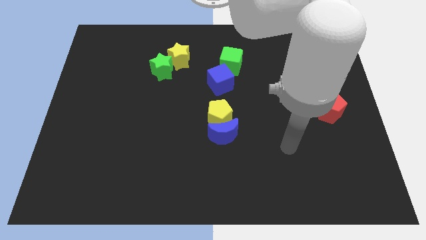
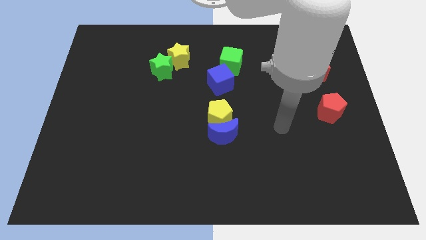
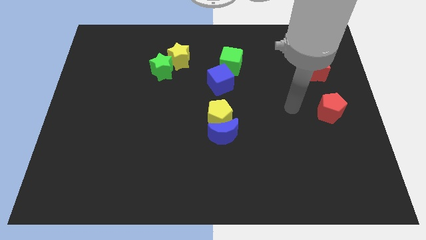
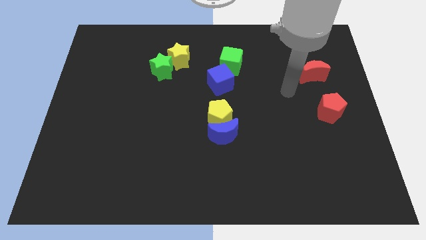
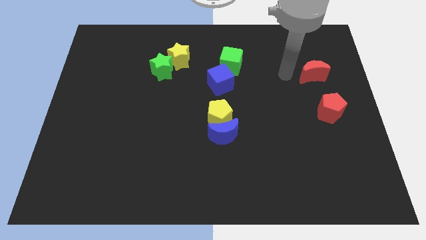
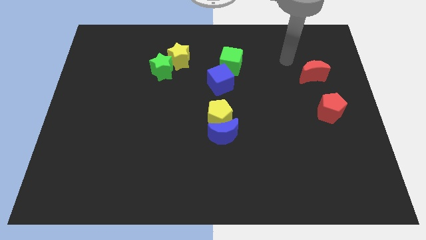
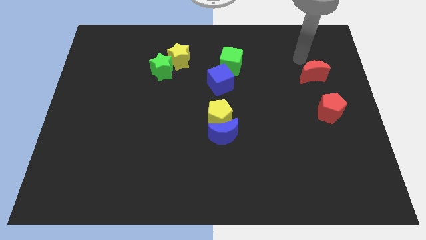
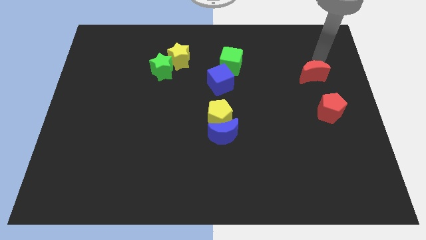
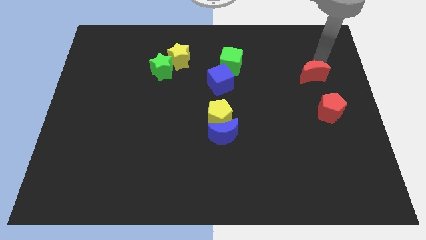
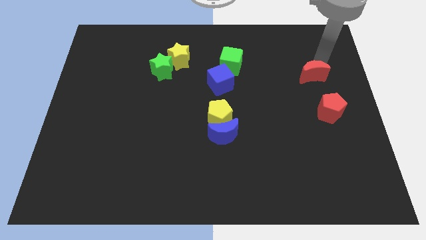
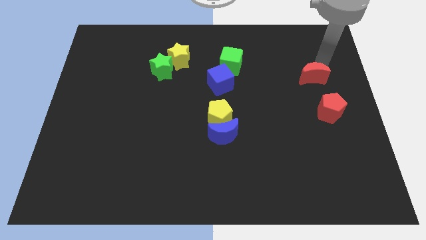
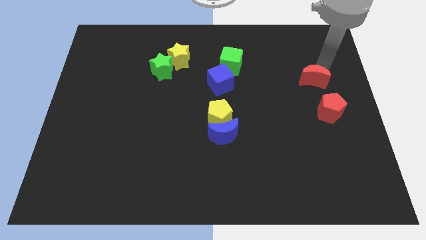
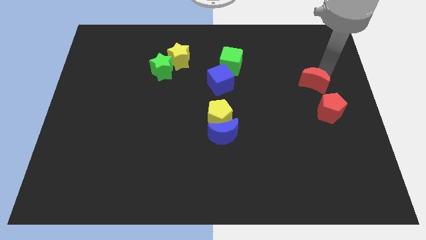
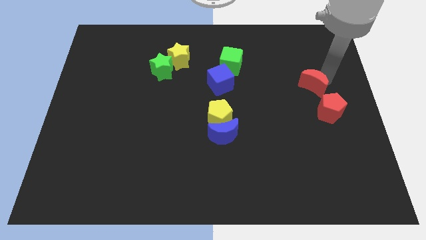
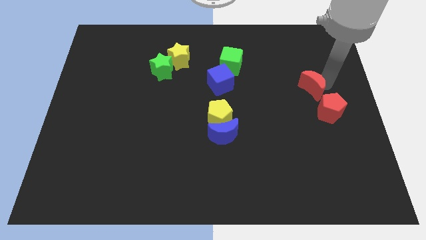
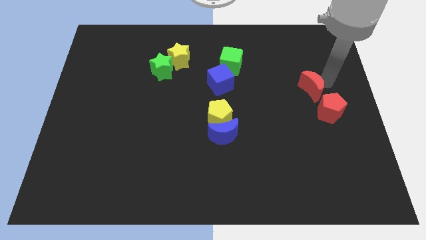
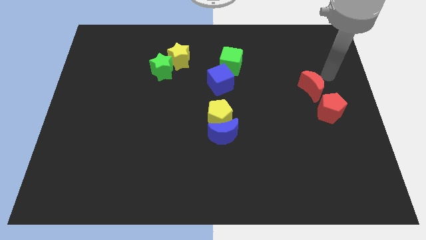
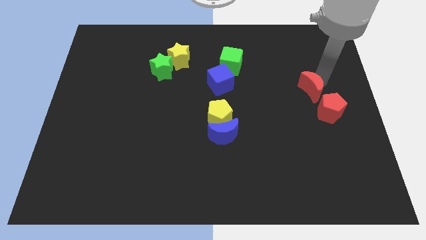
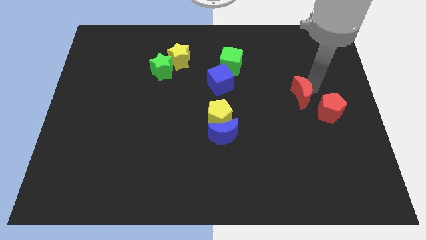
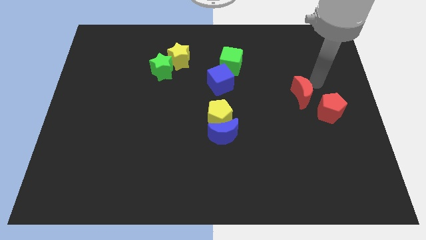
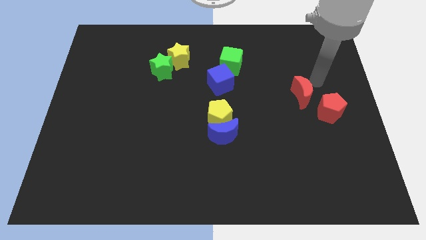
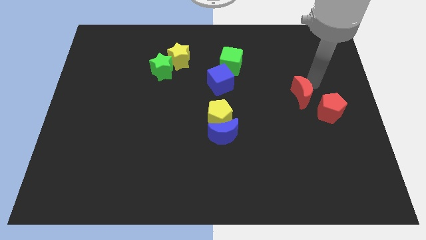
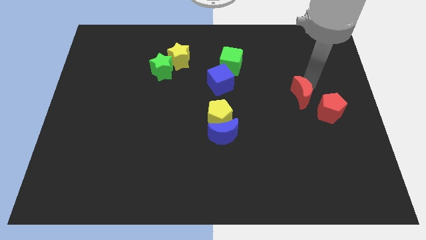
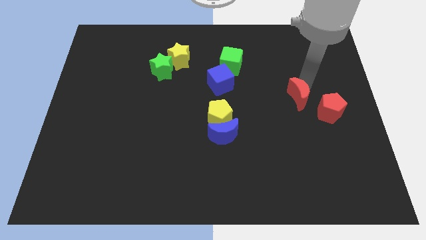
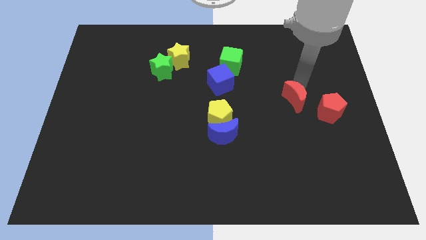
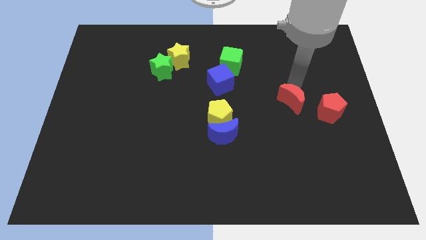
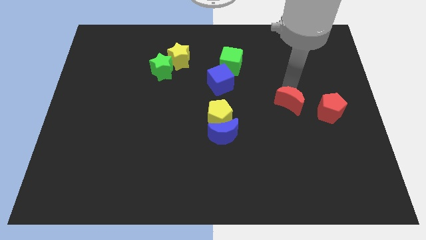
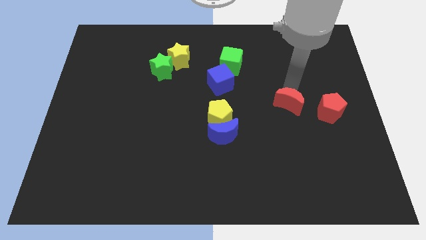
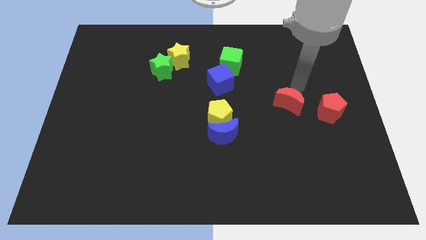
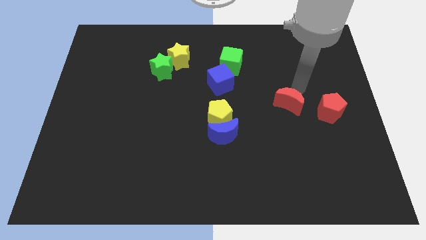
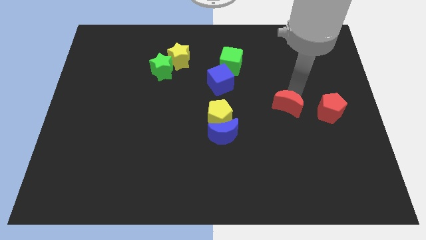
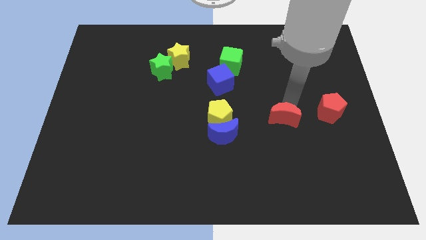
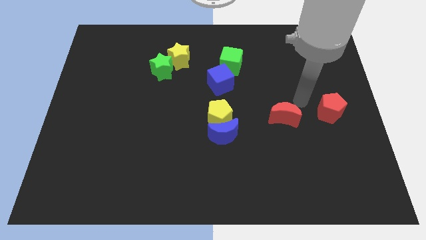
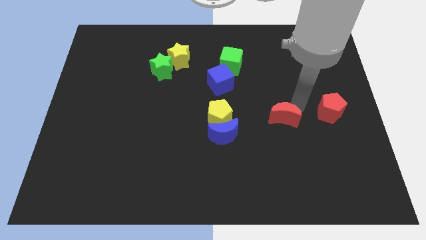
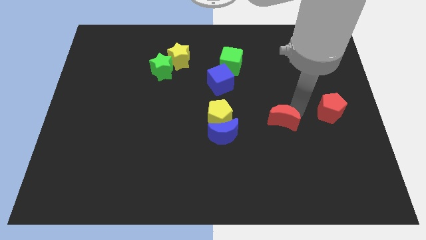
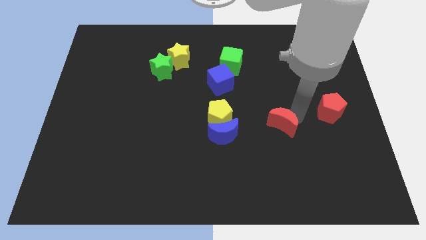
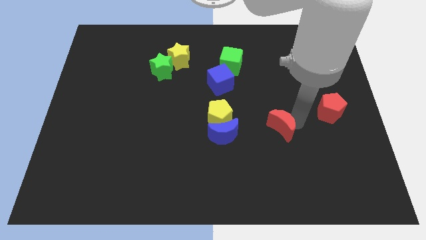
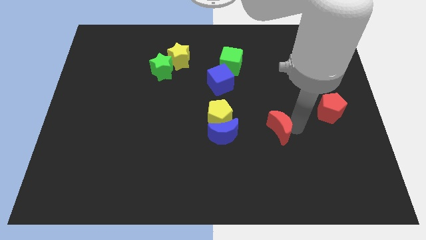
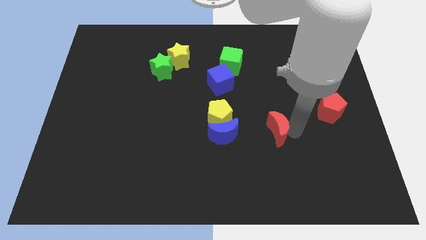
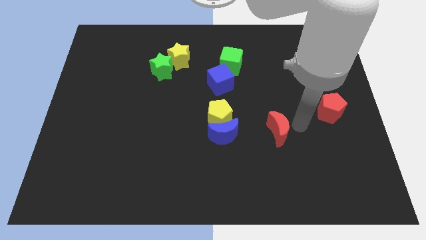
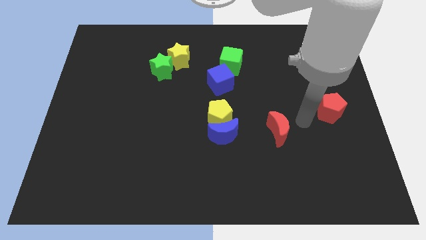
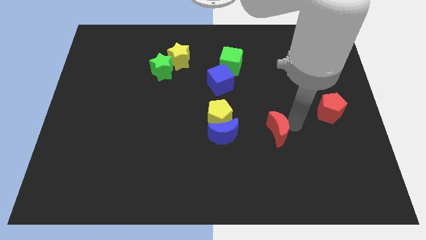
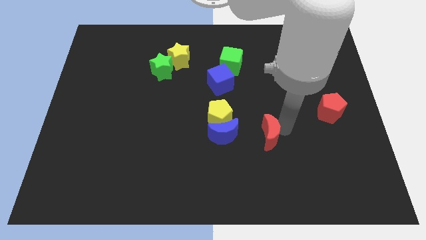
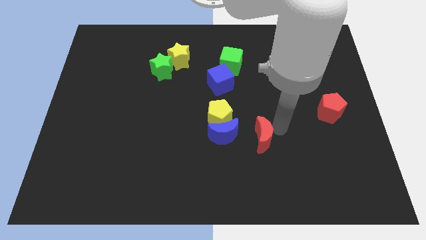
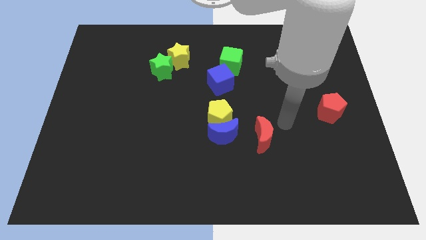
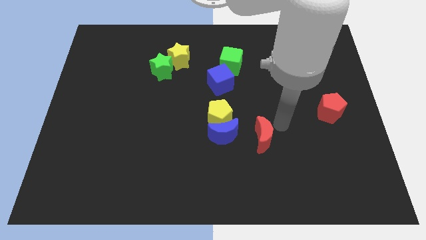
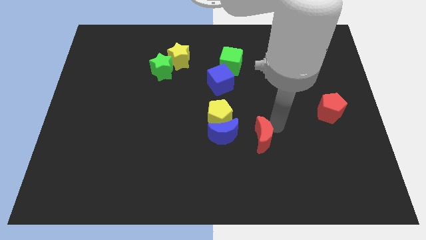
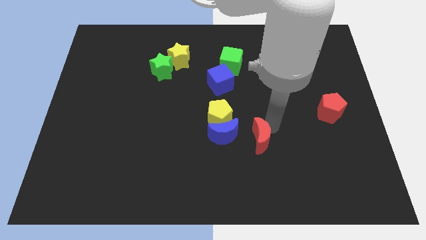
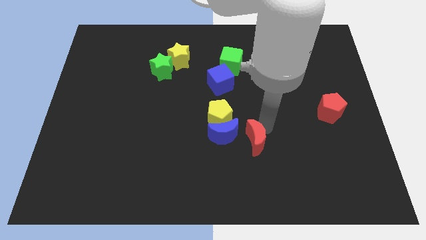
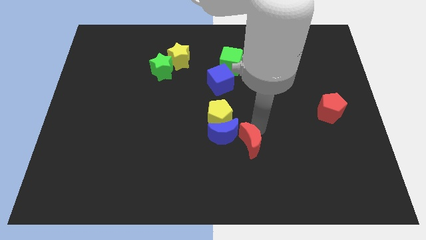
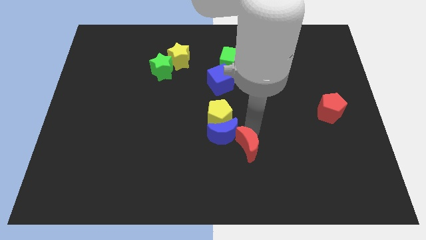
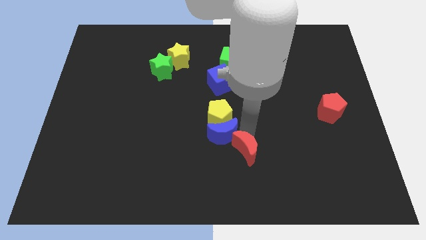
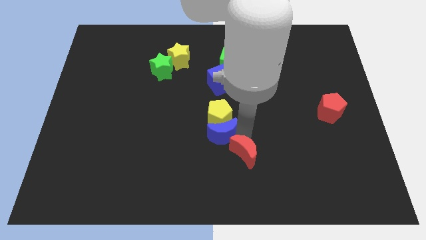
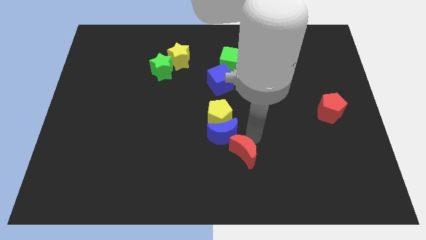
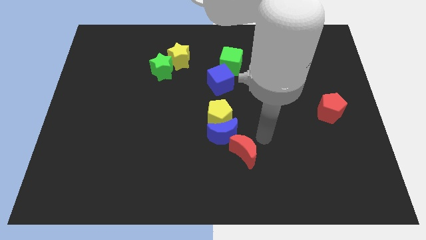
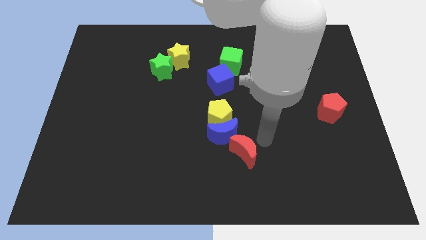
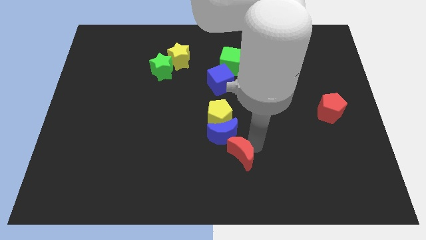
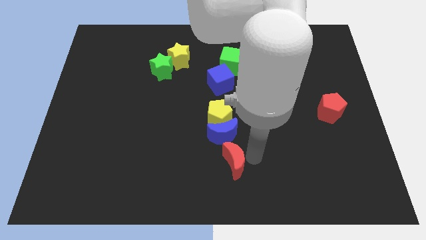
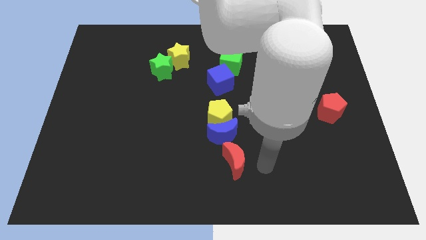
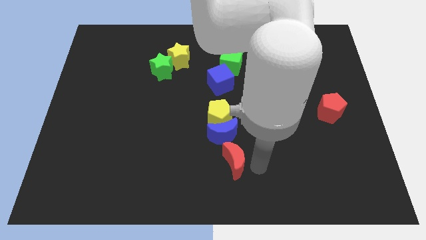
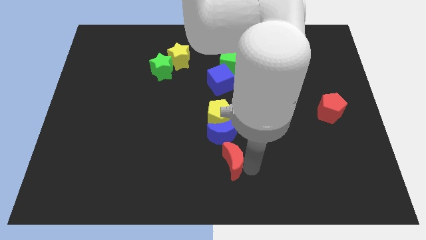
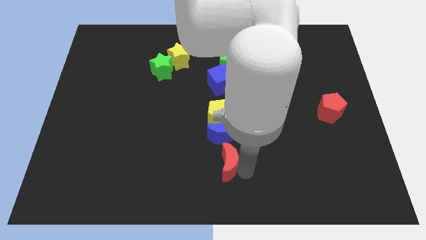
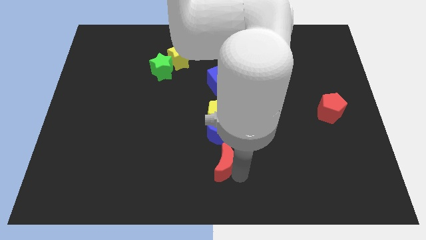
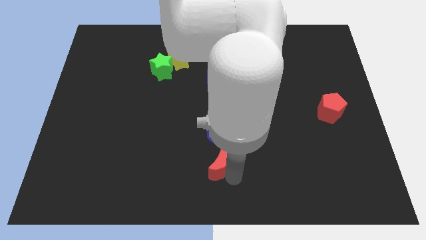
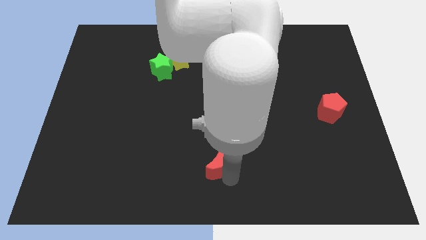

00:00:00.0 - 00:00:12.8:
put the red moon to the bottom left side of the blue moon

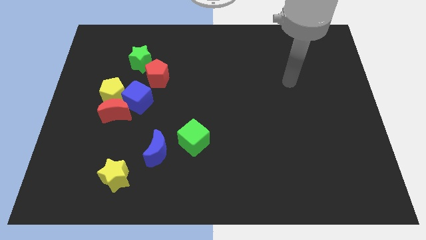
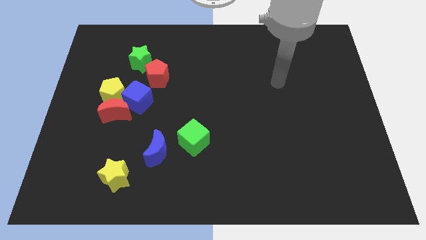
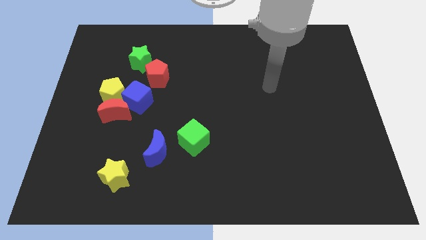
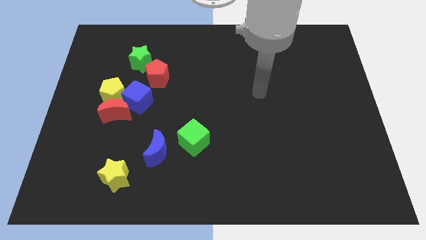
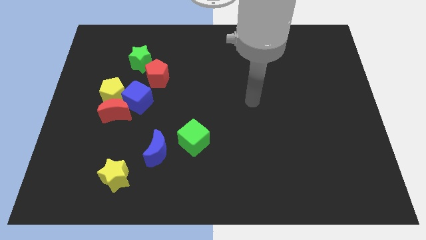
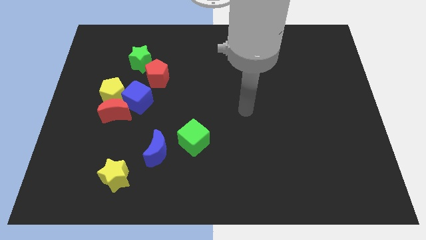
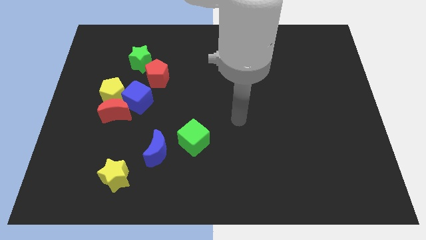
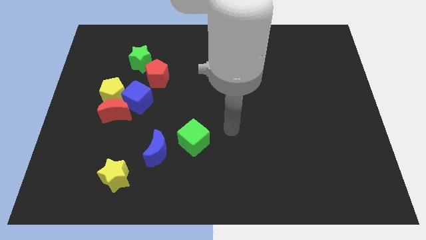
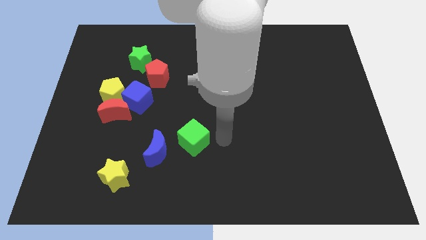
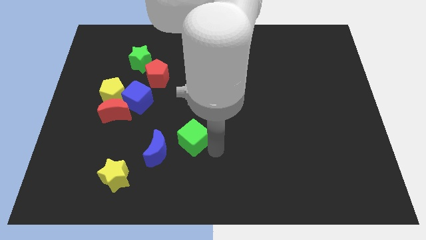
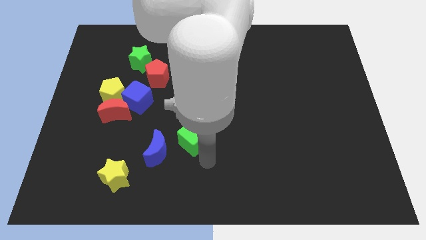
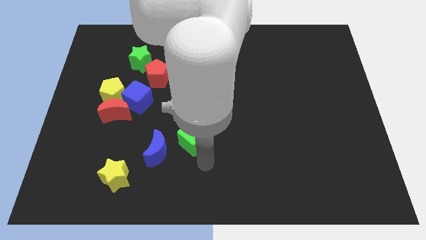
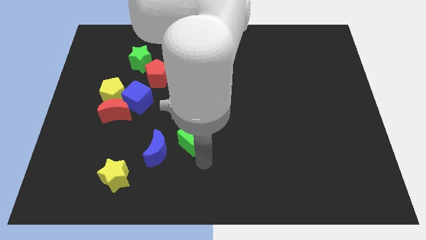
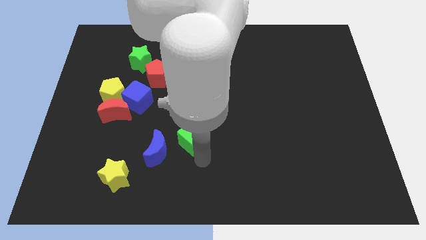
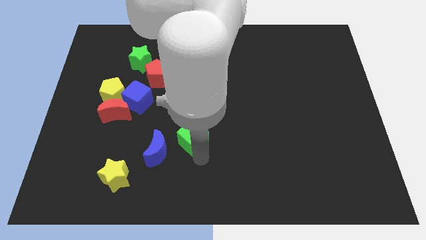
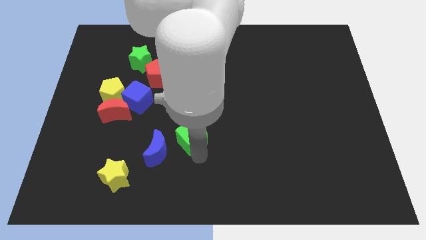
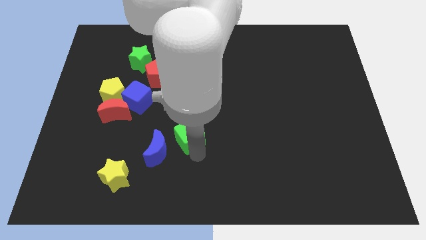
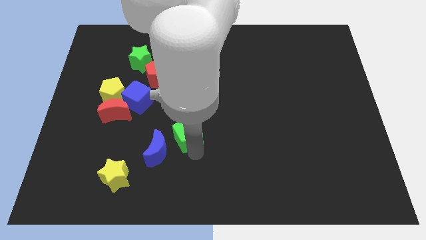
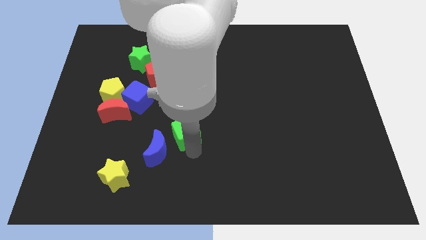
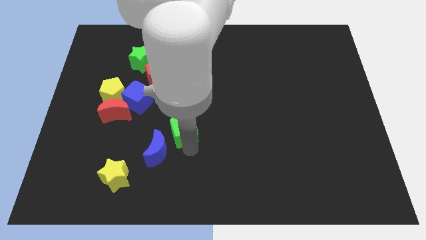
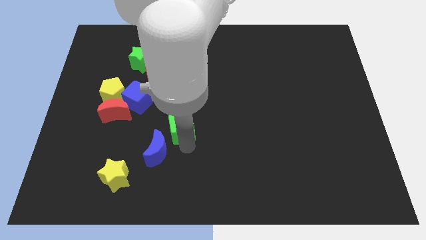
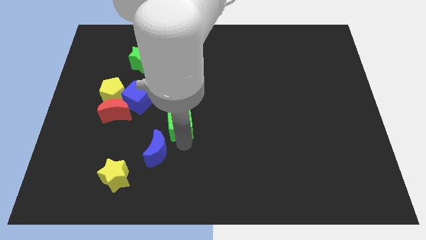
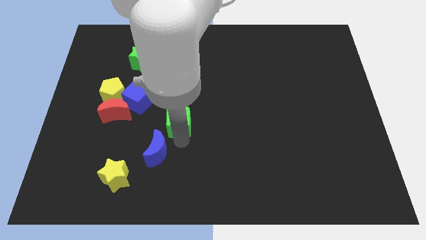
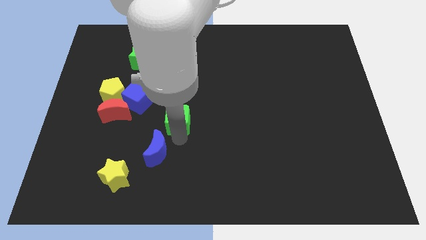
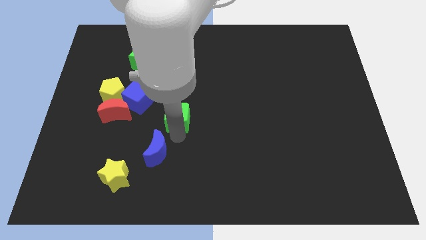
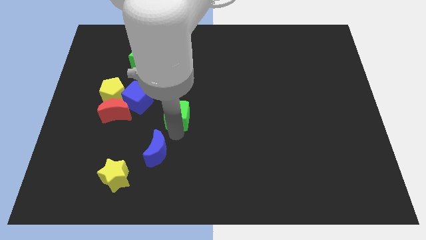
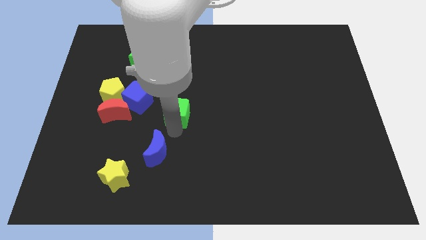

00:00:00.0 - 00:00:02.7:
move the green cube right of the blue cube
